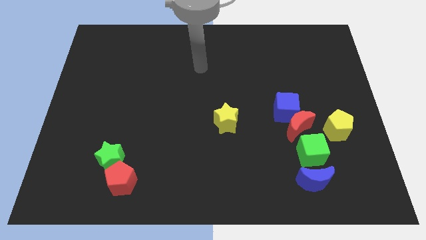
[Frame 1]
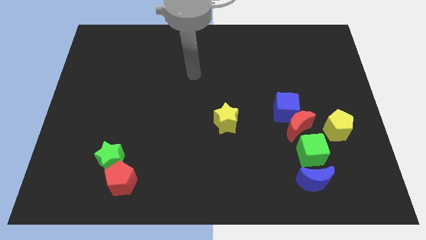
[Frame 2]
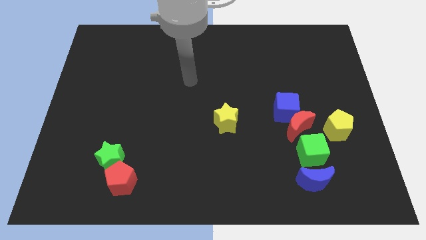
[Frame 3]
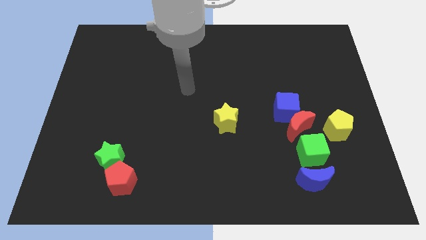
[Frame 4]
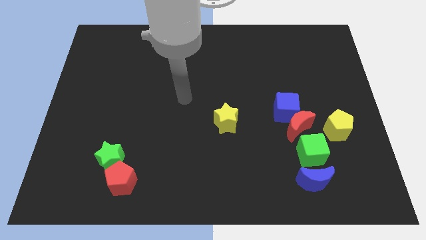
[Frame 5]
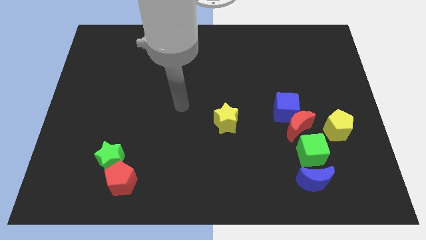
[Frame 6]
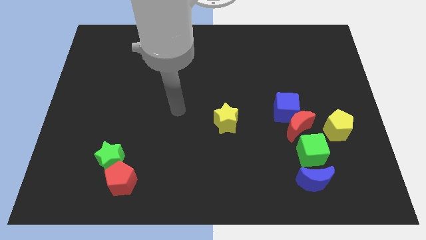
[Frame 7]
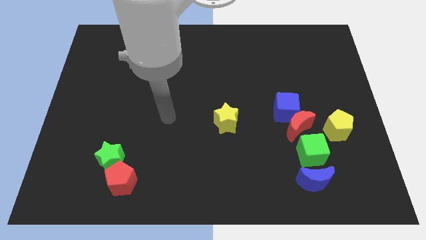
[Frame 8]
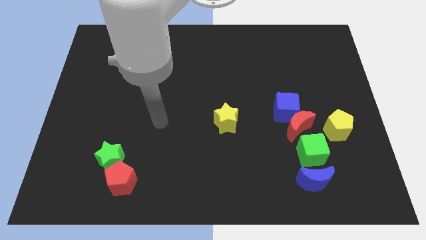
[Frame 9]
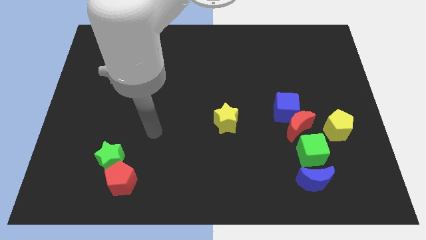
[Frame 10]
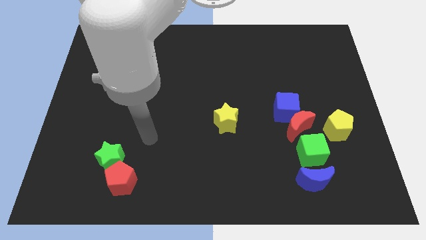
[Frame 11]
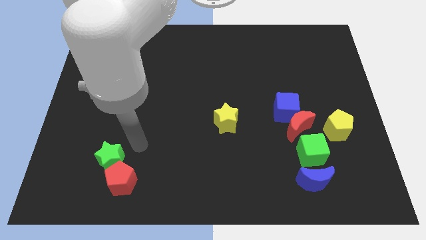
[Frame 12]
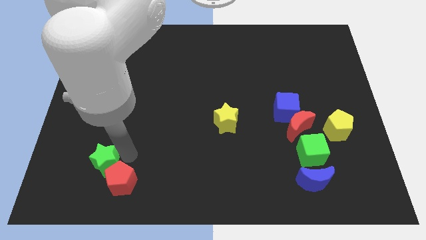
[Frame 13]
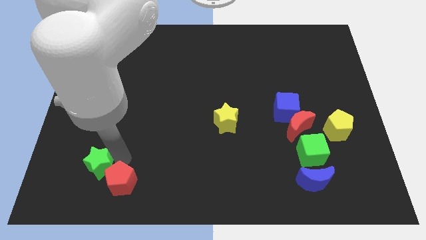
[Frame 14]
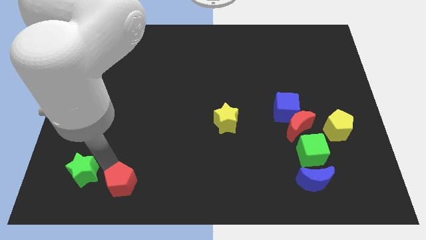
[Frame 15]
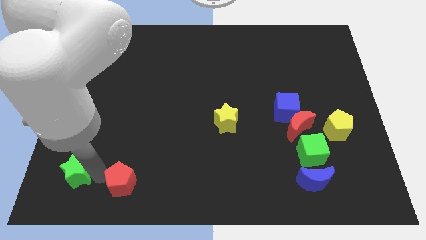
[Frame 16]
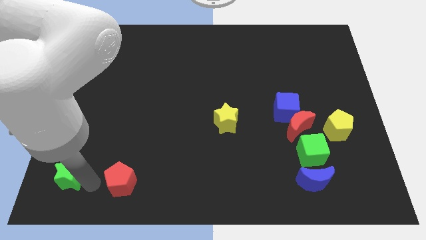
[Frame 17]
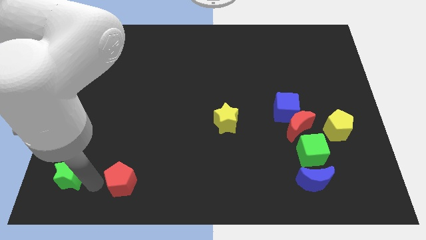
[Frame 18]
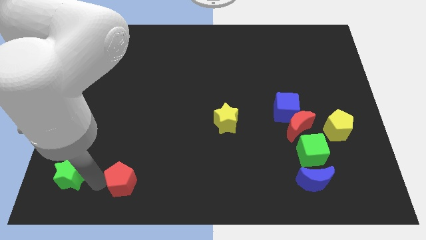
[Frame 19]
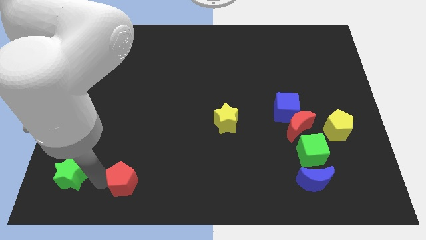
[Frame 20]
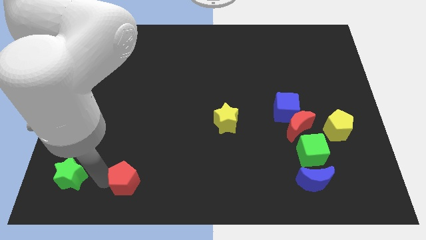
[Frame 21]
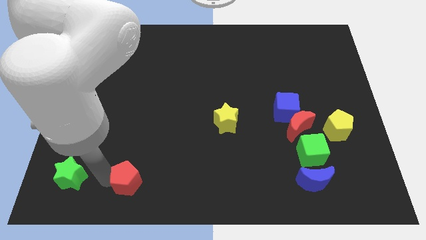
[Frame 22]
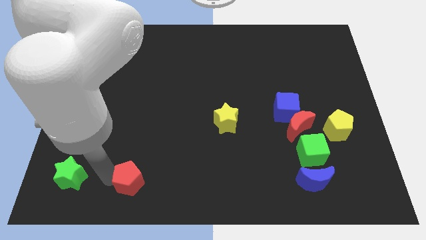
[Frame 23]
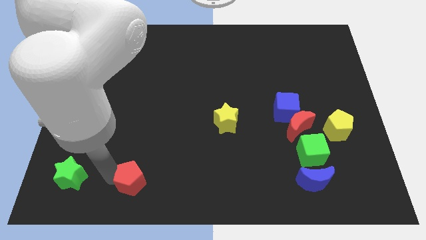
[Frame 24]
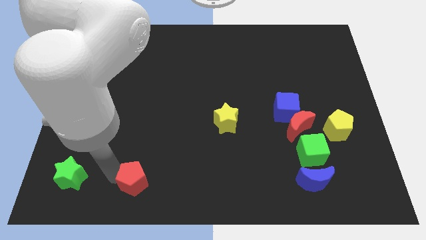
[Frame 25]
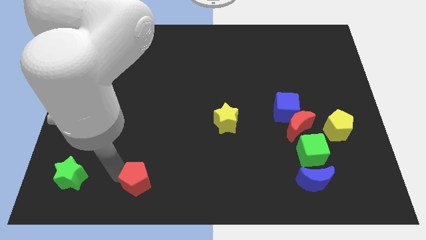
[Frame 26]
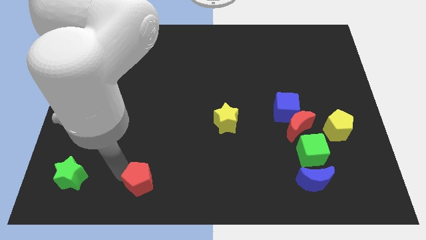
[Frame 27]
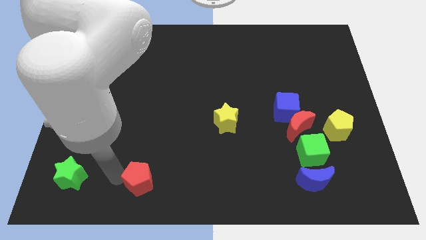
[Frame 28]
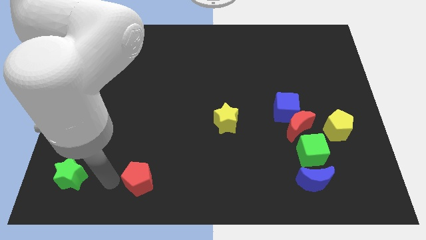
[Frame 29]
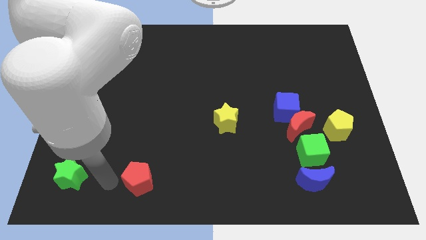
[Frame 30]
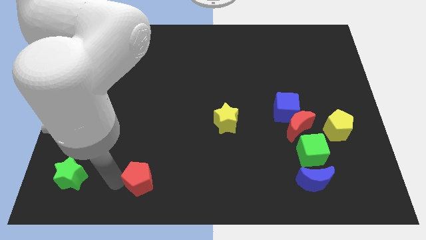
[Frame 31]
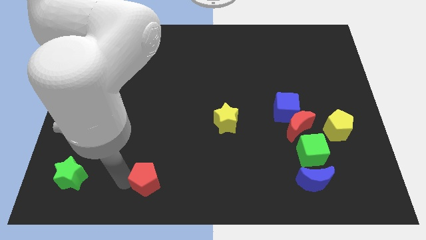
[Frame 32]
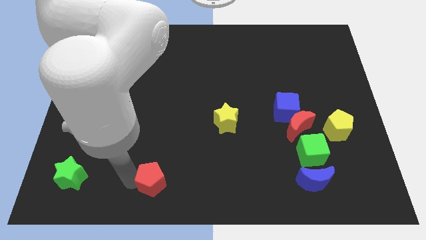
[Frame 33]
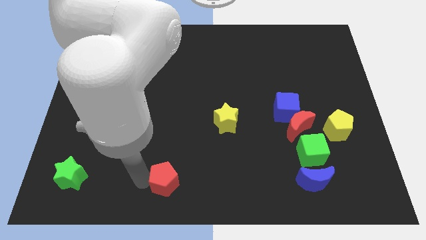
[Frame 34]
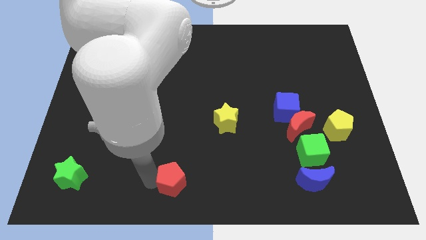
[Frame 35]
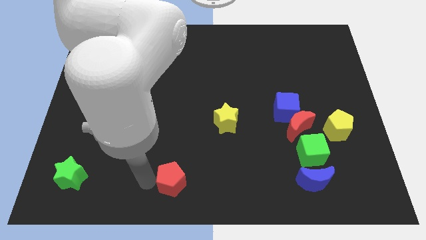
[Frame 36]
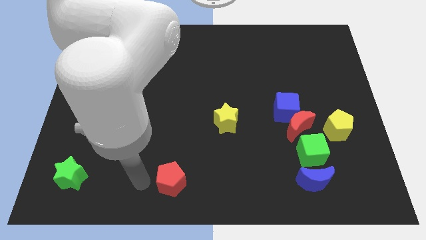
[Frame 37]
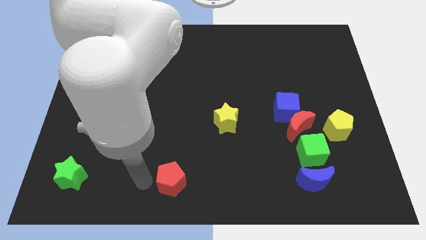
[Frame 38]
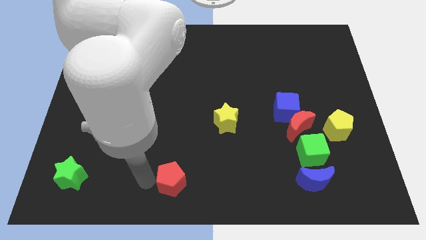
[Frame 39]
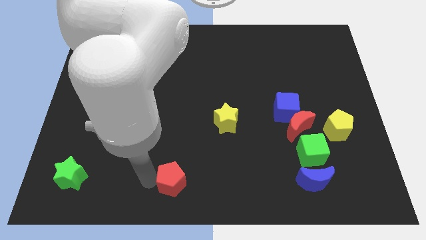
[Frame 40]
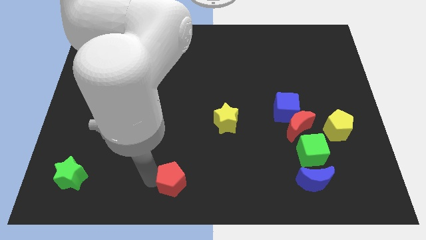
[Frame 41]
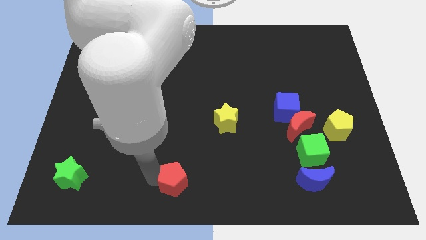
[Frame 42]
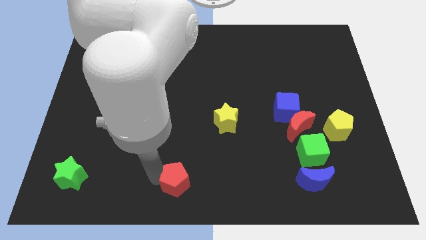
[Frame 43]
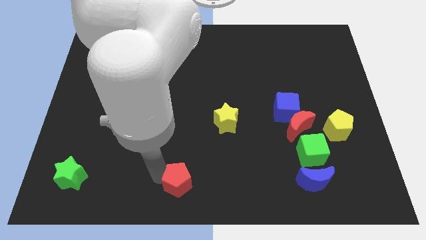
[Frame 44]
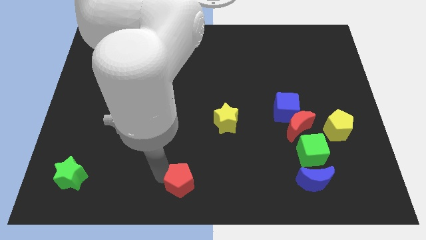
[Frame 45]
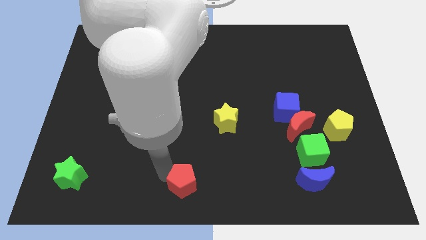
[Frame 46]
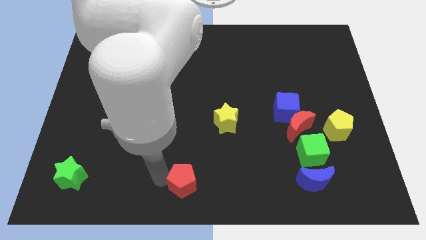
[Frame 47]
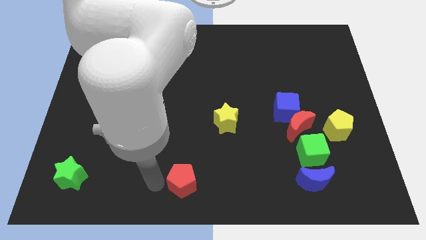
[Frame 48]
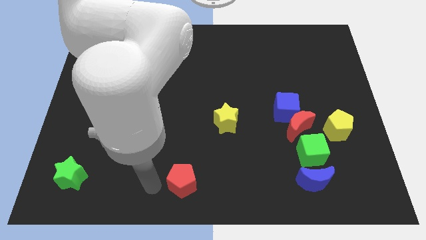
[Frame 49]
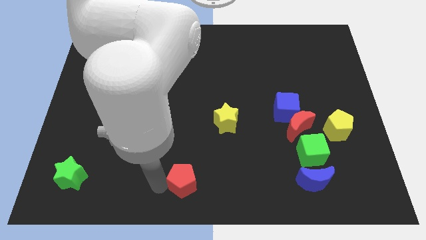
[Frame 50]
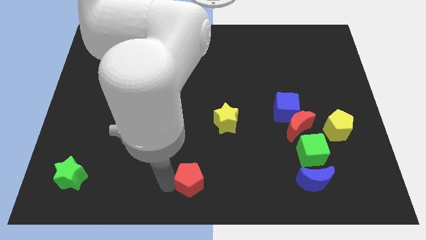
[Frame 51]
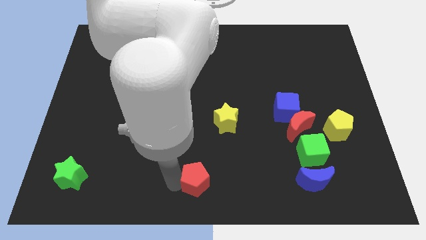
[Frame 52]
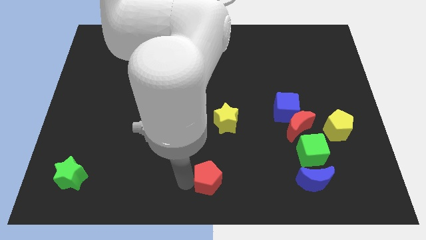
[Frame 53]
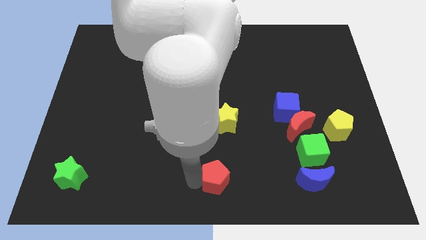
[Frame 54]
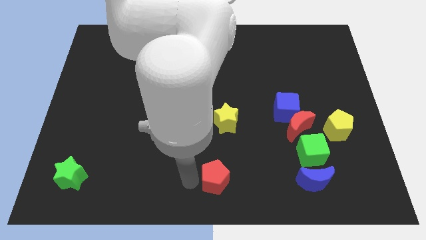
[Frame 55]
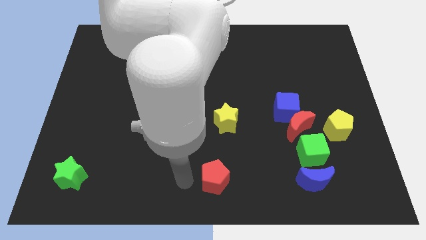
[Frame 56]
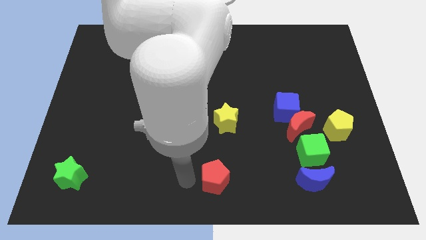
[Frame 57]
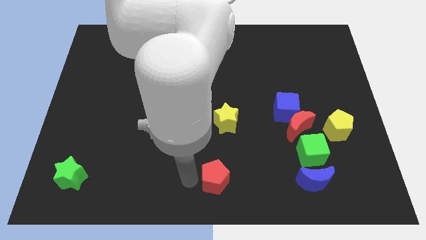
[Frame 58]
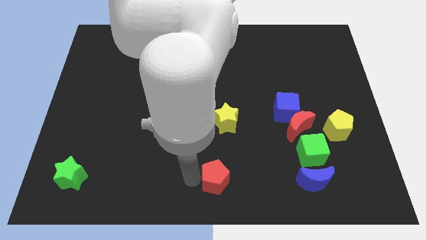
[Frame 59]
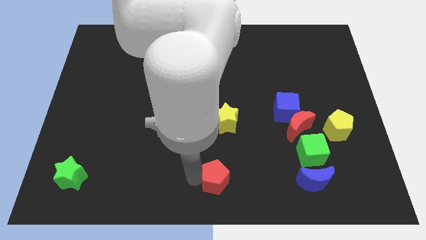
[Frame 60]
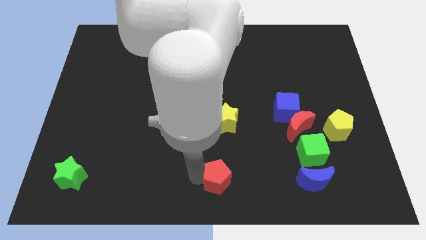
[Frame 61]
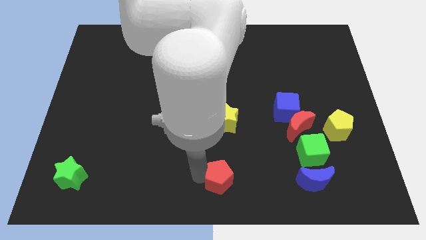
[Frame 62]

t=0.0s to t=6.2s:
slide the red pentagon to the right

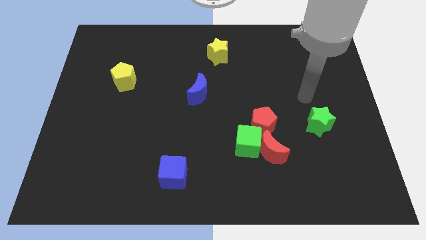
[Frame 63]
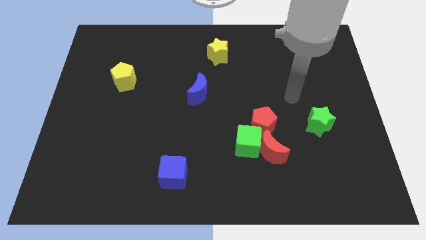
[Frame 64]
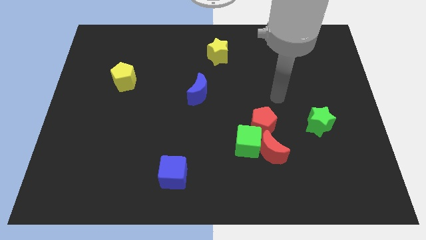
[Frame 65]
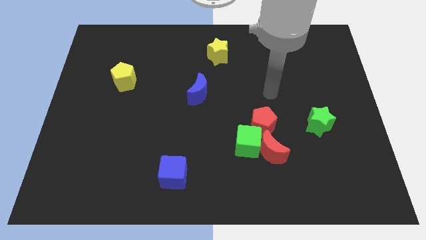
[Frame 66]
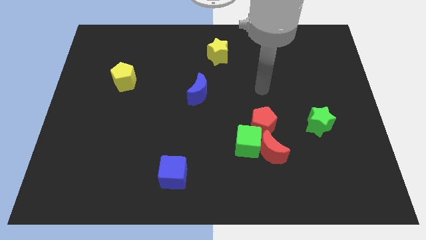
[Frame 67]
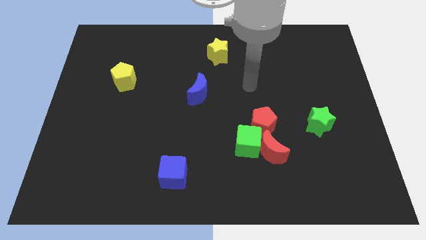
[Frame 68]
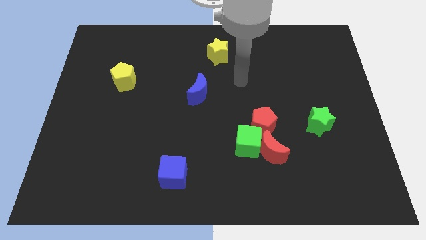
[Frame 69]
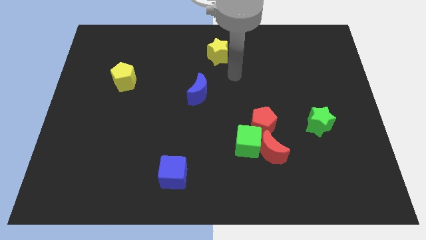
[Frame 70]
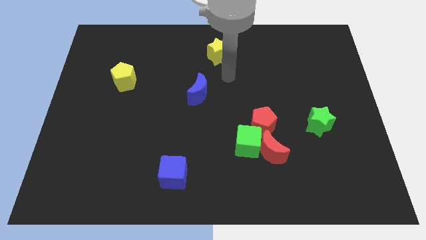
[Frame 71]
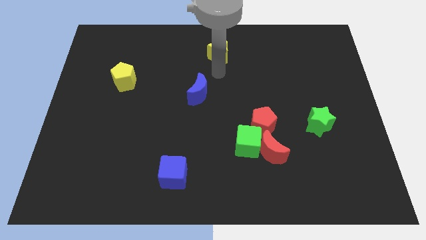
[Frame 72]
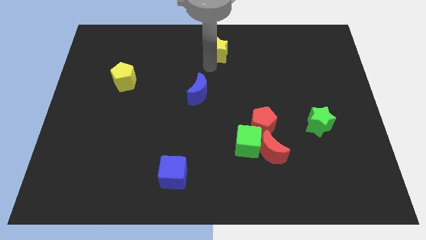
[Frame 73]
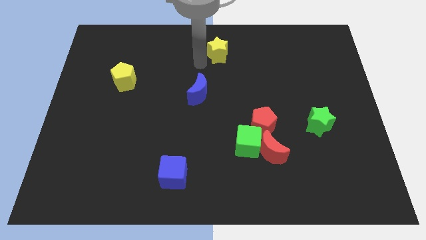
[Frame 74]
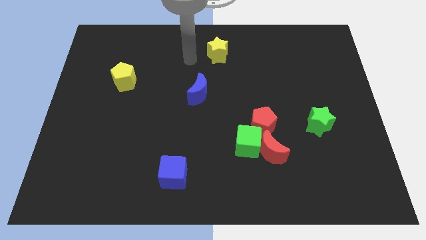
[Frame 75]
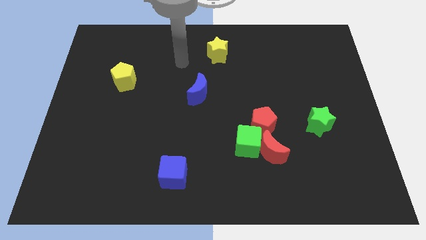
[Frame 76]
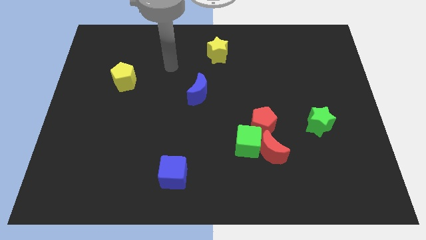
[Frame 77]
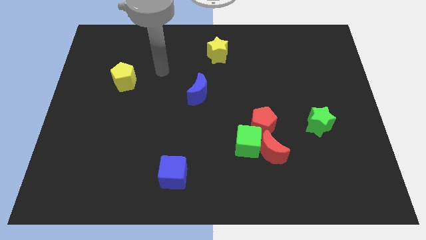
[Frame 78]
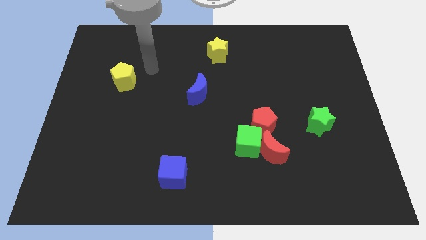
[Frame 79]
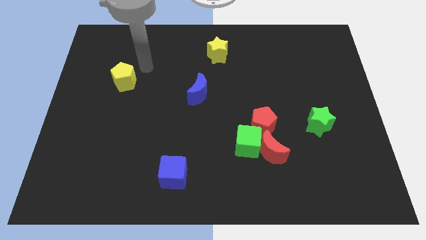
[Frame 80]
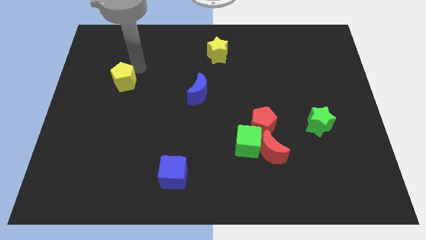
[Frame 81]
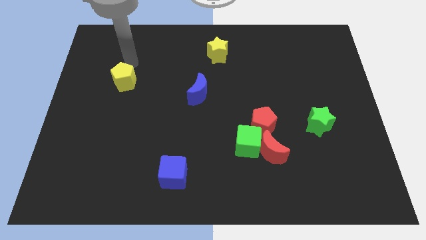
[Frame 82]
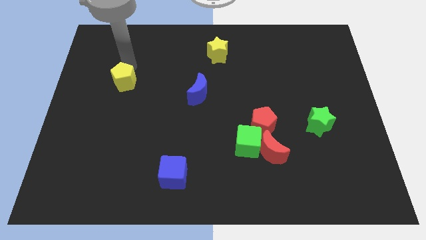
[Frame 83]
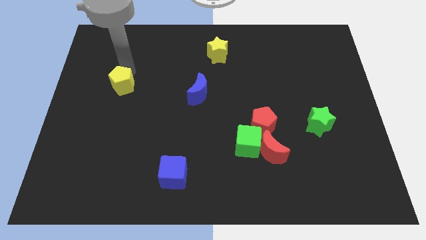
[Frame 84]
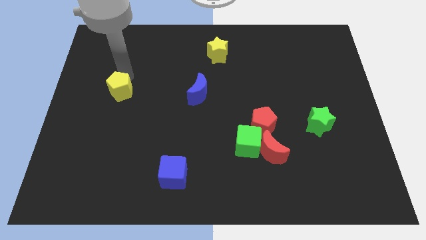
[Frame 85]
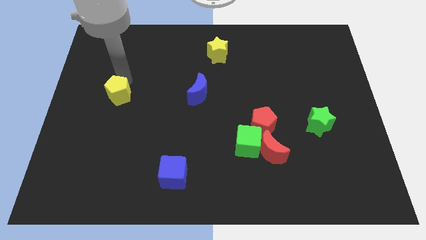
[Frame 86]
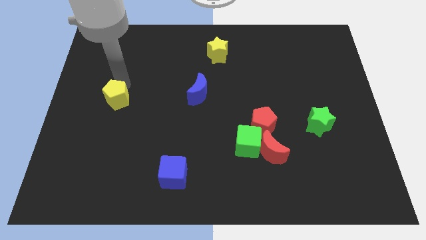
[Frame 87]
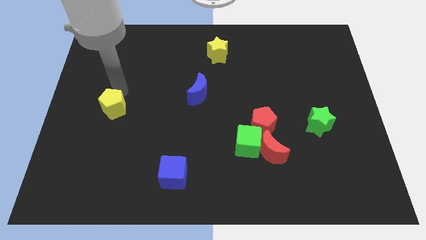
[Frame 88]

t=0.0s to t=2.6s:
slightly move the yellow pentagon downwards
